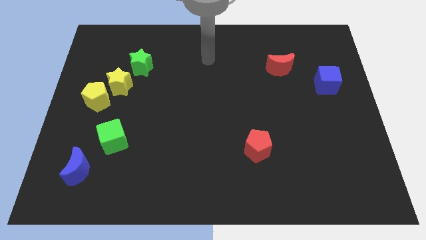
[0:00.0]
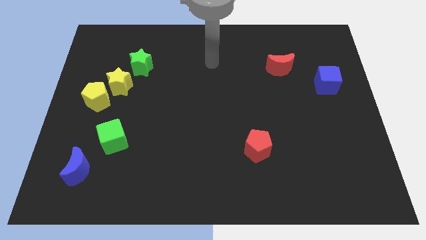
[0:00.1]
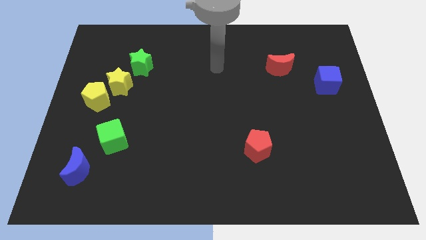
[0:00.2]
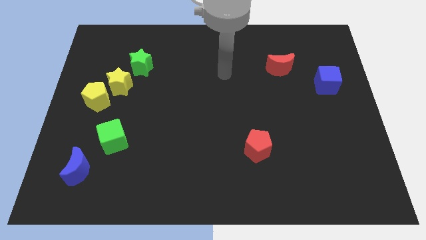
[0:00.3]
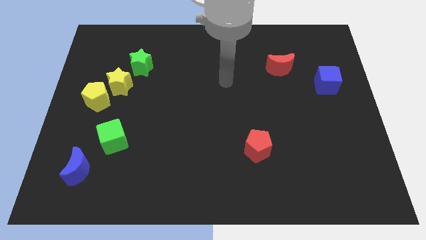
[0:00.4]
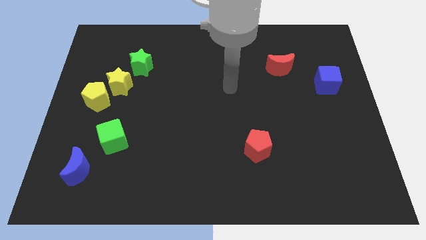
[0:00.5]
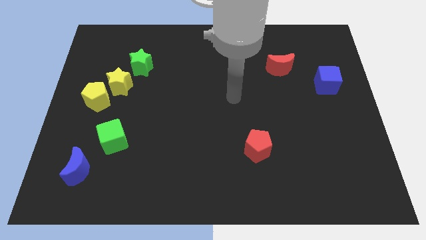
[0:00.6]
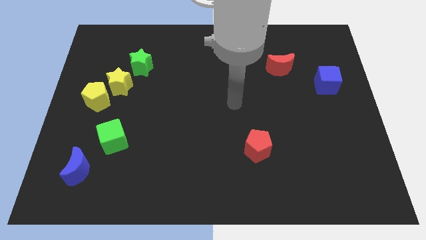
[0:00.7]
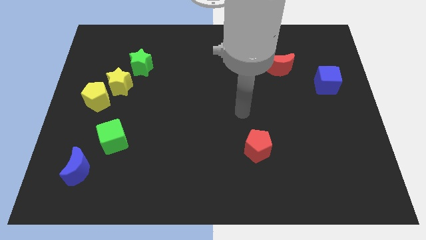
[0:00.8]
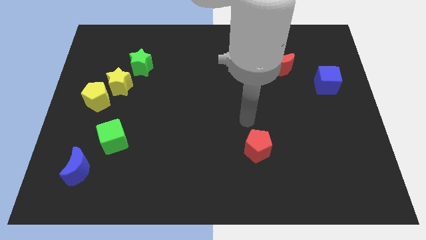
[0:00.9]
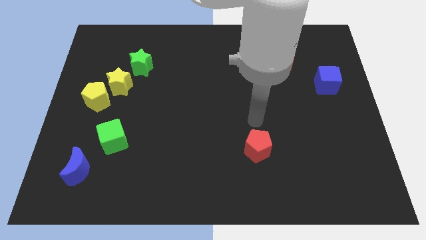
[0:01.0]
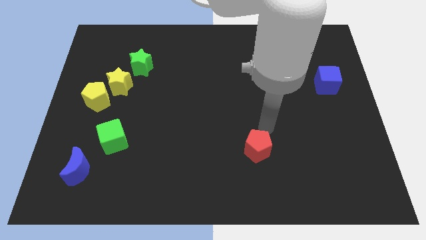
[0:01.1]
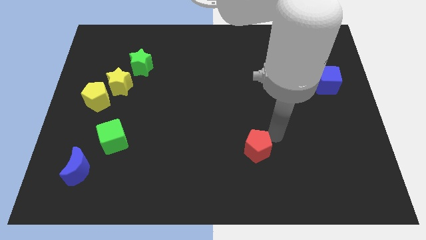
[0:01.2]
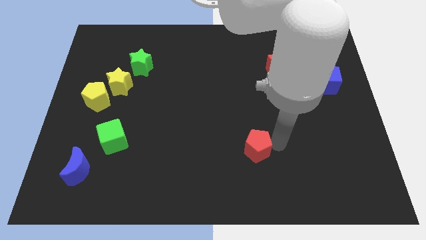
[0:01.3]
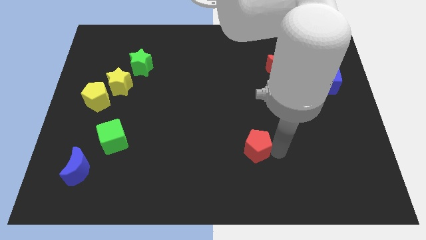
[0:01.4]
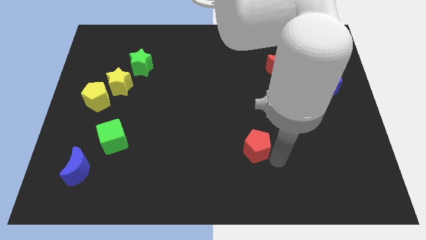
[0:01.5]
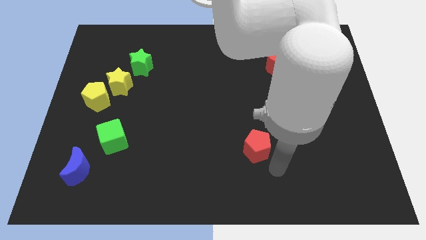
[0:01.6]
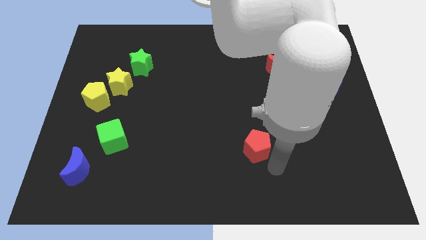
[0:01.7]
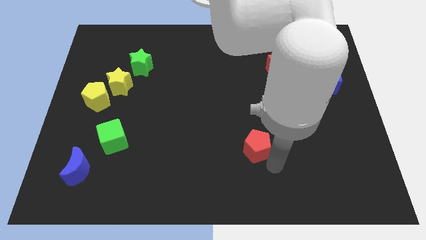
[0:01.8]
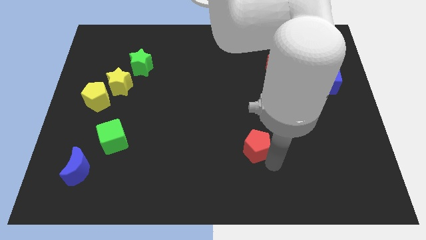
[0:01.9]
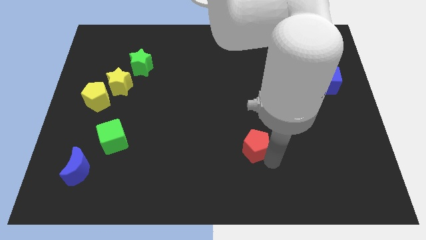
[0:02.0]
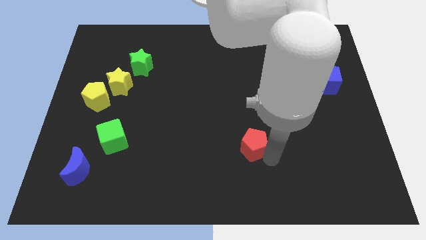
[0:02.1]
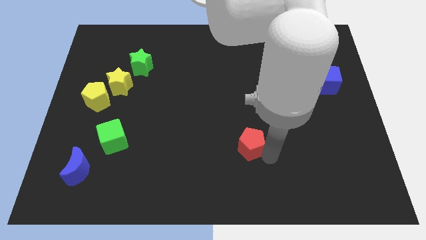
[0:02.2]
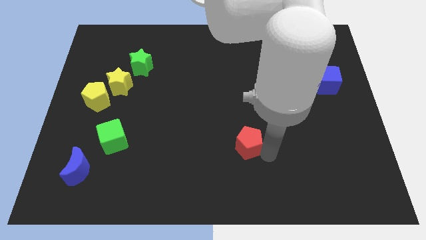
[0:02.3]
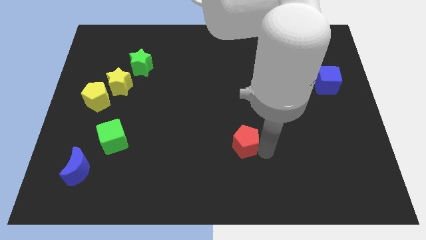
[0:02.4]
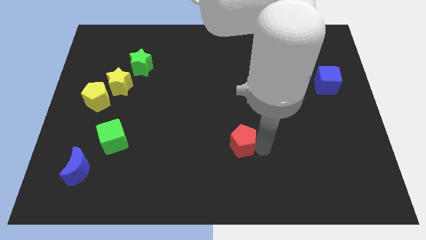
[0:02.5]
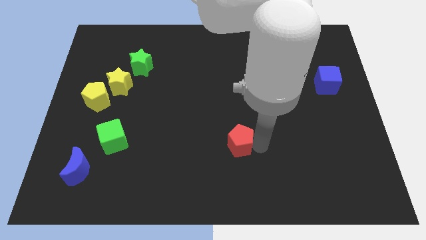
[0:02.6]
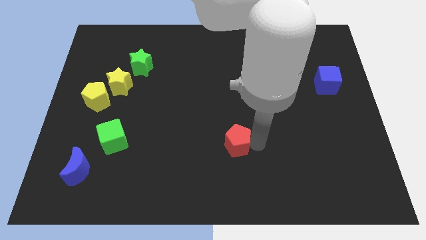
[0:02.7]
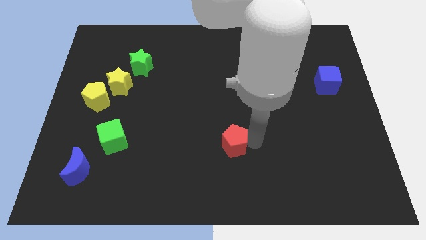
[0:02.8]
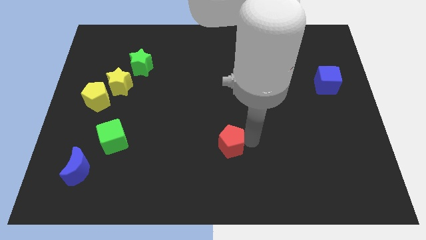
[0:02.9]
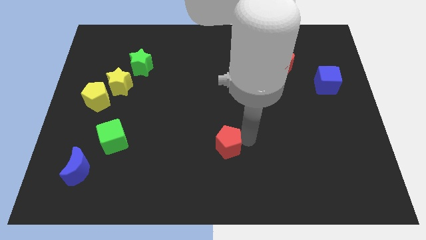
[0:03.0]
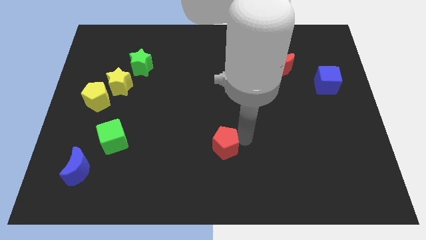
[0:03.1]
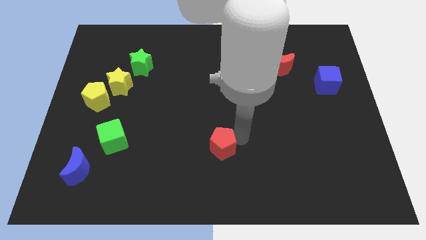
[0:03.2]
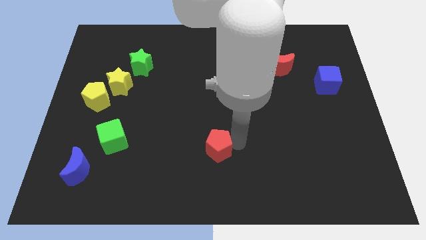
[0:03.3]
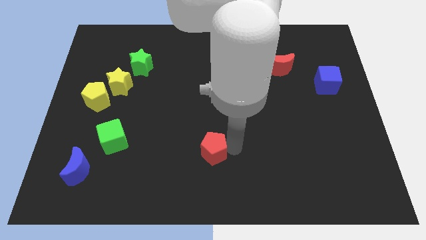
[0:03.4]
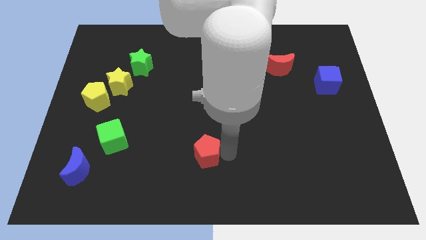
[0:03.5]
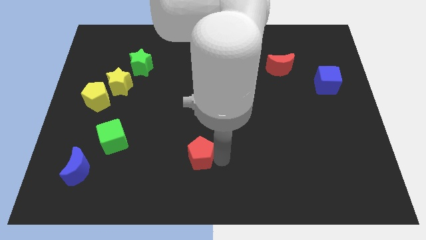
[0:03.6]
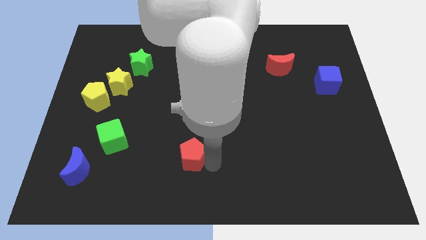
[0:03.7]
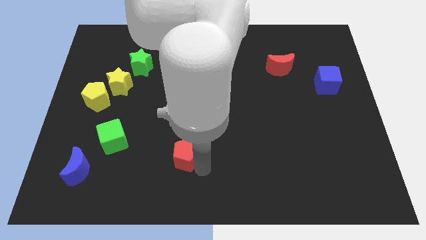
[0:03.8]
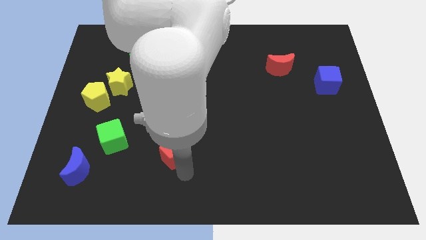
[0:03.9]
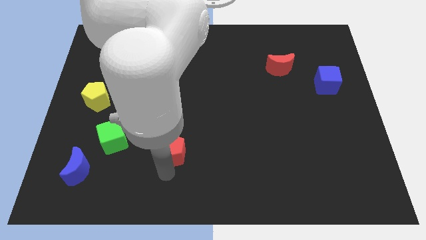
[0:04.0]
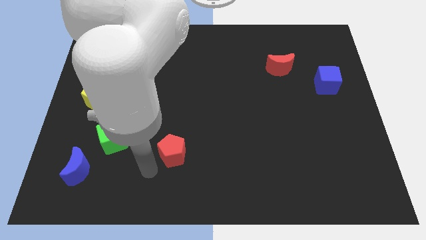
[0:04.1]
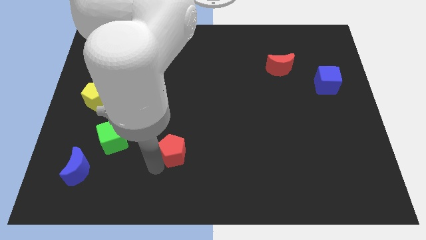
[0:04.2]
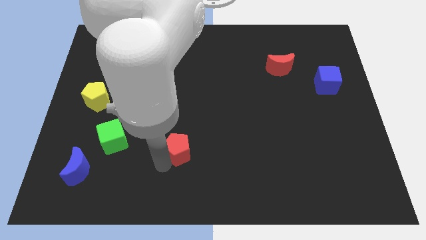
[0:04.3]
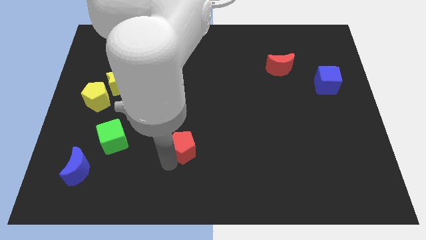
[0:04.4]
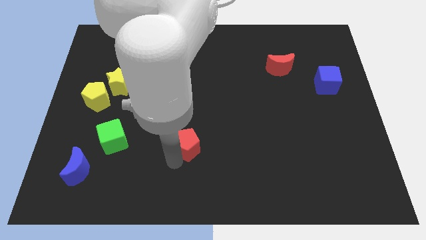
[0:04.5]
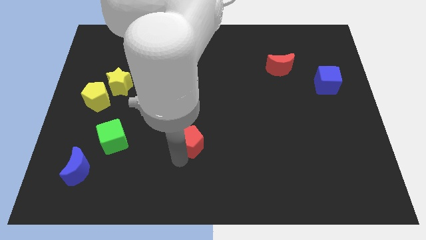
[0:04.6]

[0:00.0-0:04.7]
slightly push the red pentagon diagonally upwards and to the left

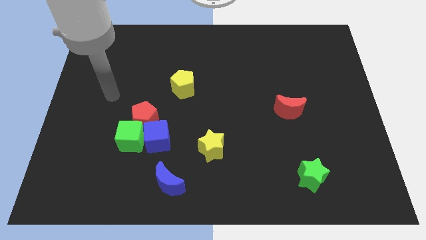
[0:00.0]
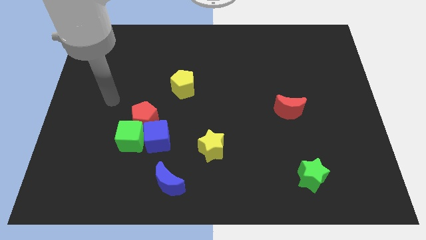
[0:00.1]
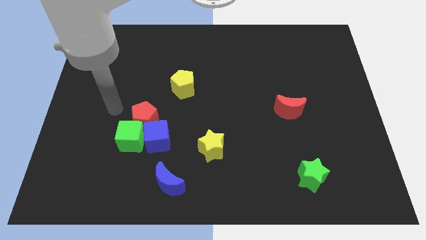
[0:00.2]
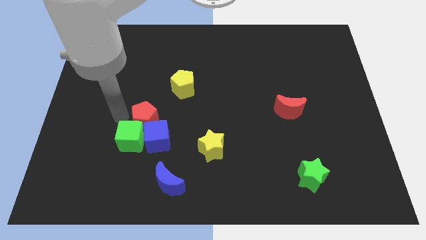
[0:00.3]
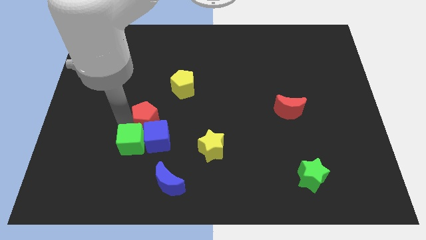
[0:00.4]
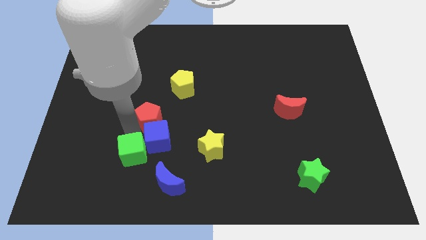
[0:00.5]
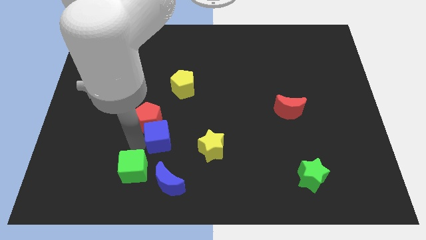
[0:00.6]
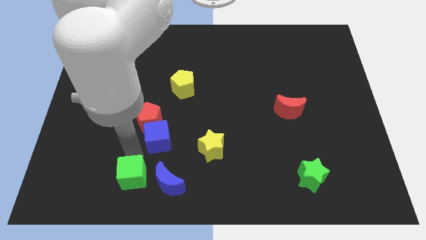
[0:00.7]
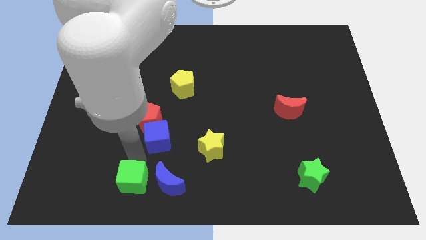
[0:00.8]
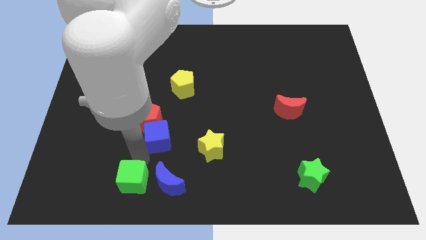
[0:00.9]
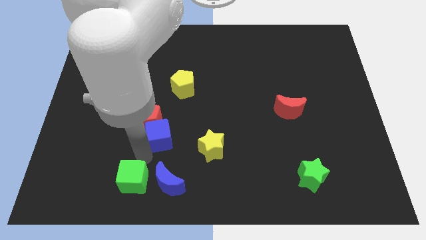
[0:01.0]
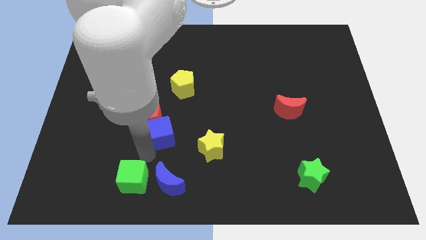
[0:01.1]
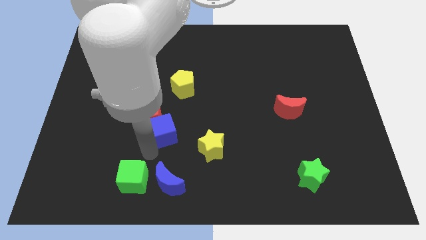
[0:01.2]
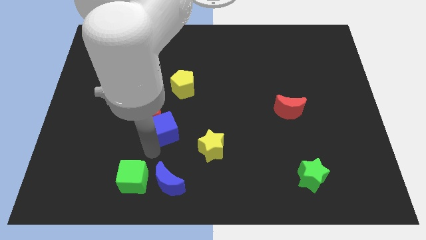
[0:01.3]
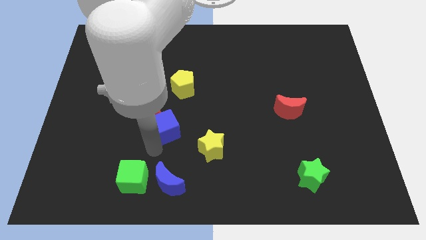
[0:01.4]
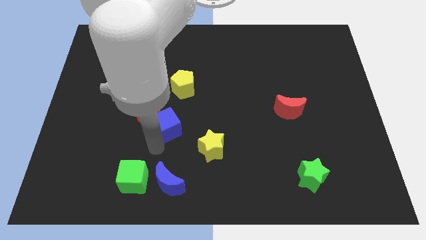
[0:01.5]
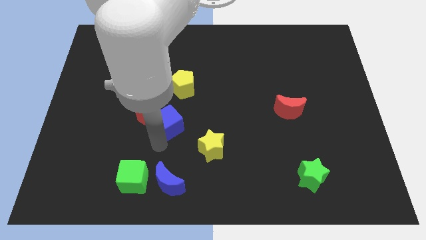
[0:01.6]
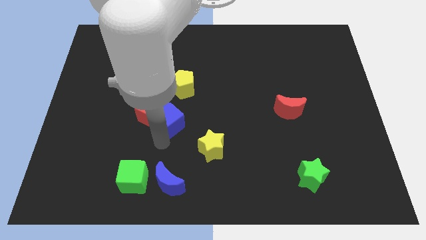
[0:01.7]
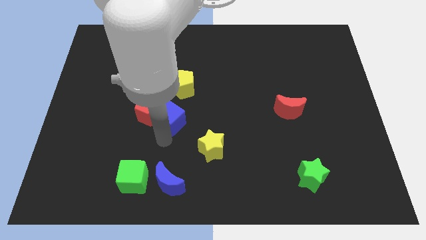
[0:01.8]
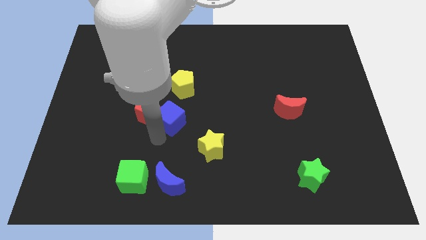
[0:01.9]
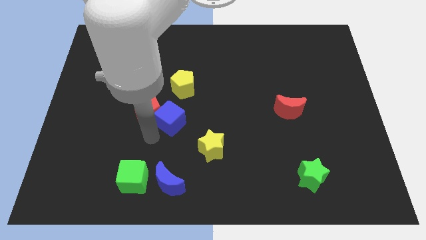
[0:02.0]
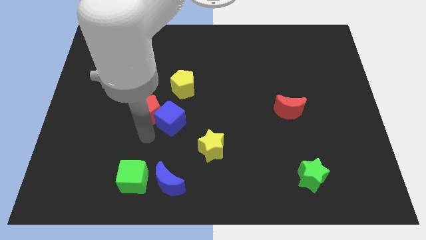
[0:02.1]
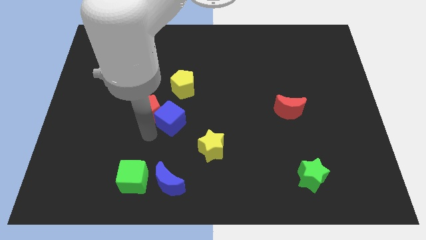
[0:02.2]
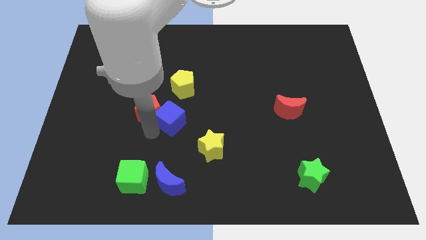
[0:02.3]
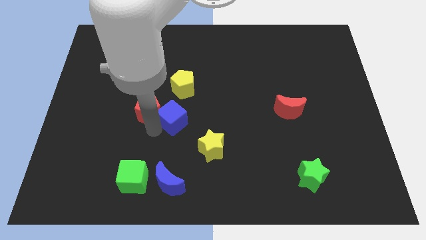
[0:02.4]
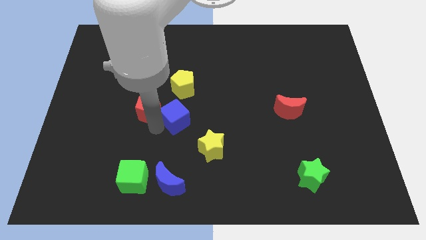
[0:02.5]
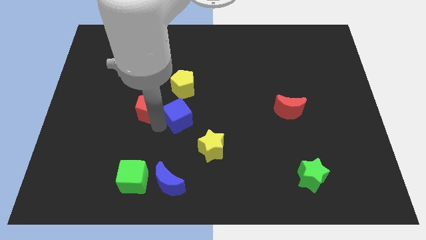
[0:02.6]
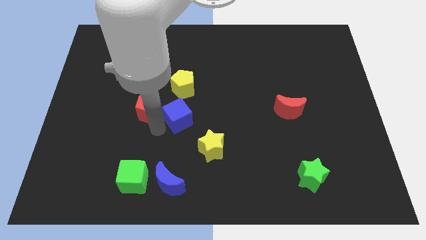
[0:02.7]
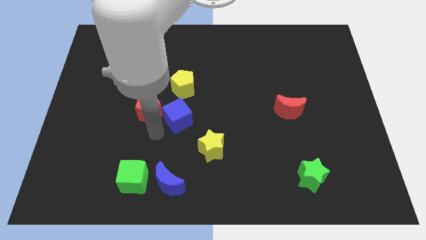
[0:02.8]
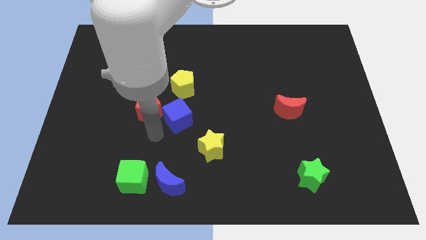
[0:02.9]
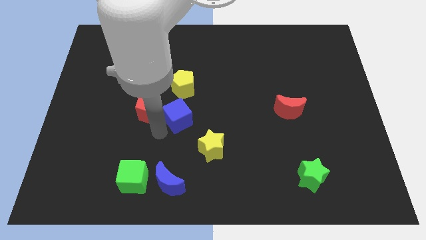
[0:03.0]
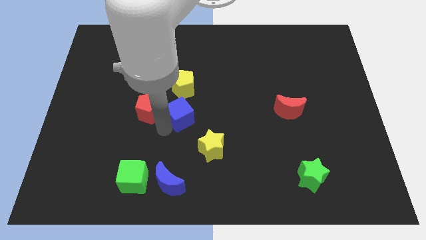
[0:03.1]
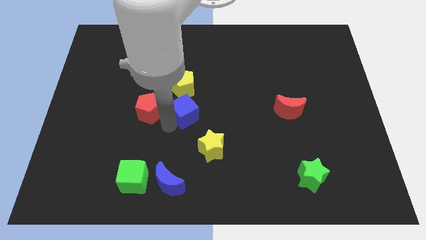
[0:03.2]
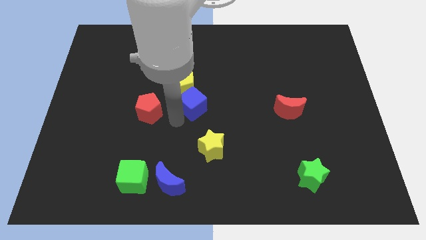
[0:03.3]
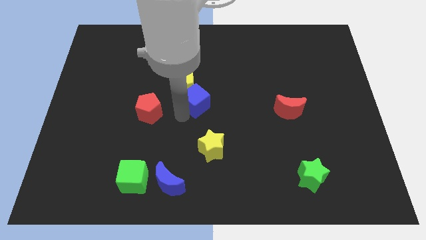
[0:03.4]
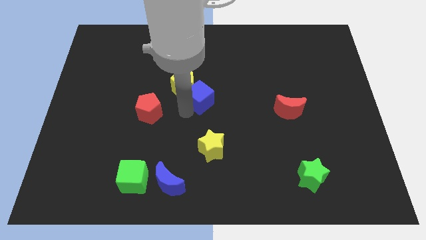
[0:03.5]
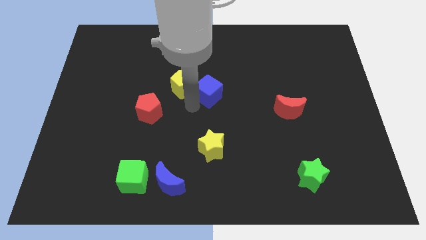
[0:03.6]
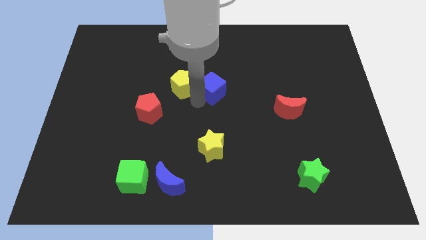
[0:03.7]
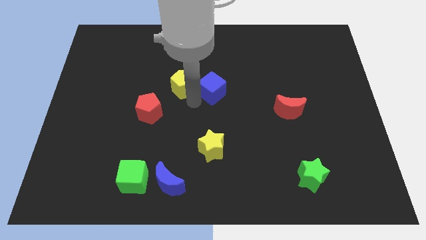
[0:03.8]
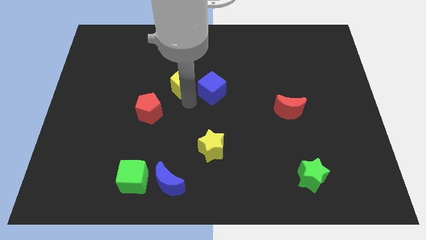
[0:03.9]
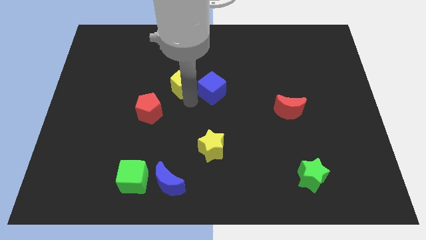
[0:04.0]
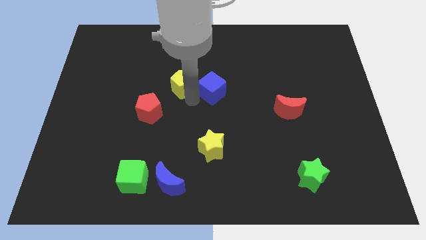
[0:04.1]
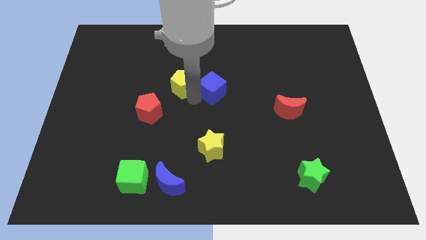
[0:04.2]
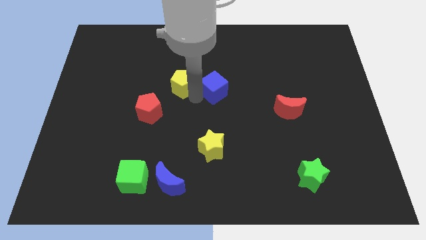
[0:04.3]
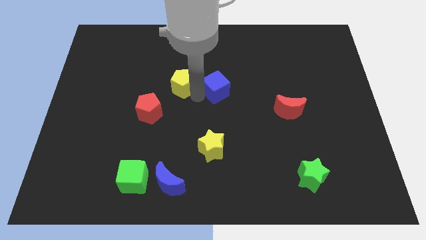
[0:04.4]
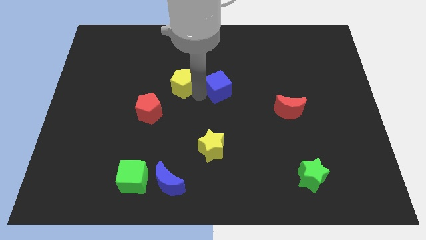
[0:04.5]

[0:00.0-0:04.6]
move the blue cube diagonally upwards and to the right
